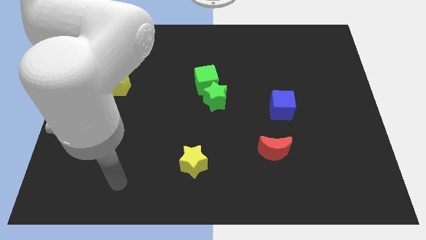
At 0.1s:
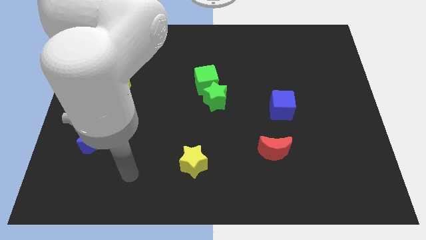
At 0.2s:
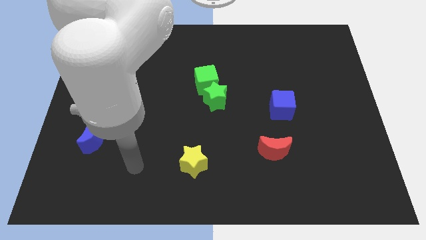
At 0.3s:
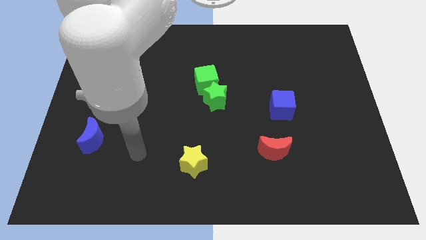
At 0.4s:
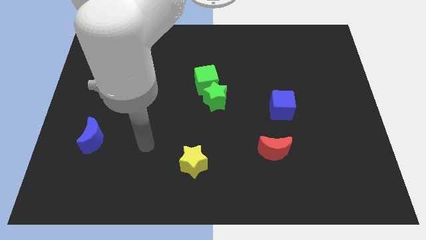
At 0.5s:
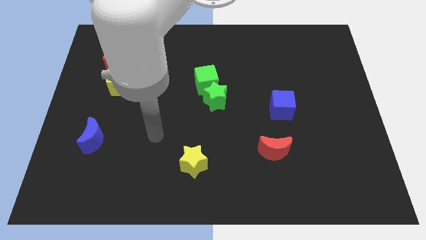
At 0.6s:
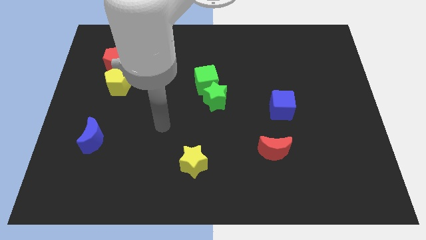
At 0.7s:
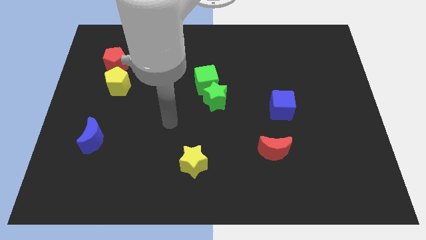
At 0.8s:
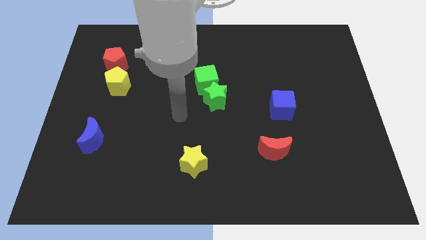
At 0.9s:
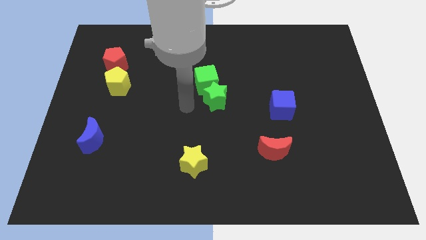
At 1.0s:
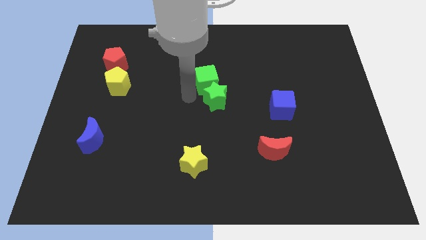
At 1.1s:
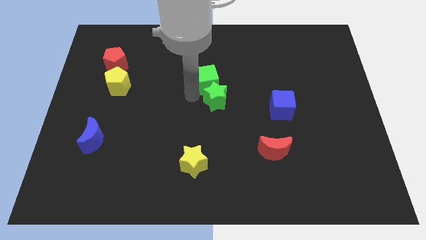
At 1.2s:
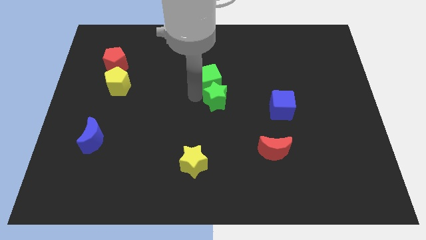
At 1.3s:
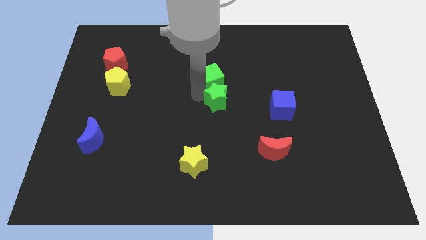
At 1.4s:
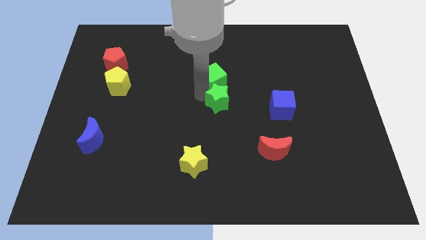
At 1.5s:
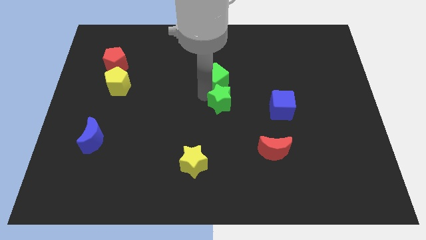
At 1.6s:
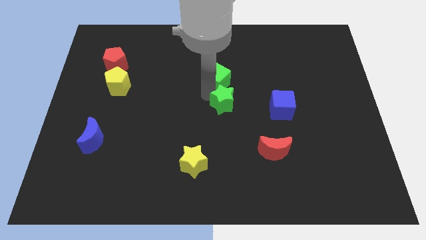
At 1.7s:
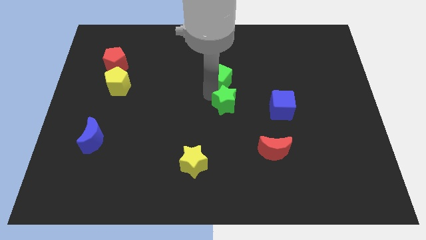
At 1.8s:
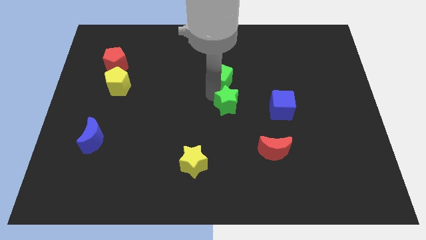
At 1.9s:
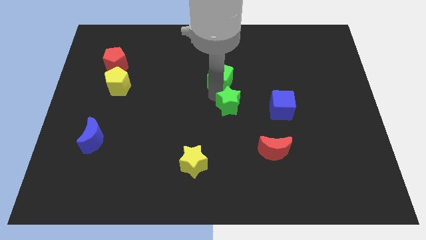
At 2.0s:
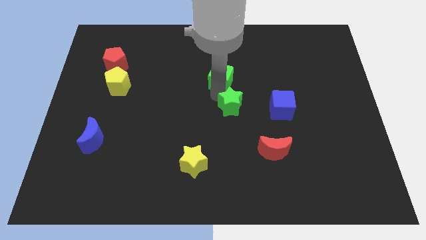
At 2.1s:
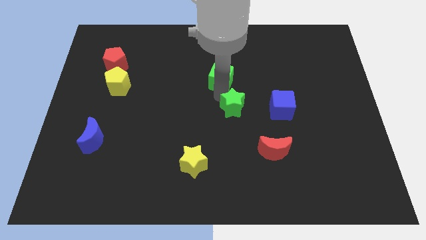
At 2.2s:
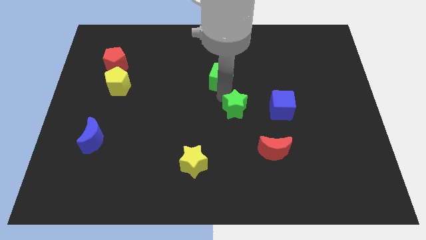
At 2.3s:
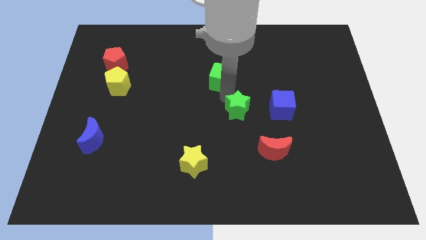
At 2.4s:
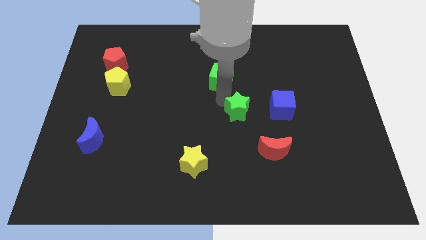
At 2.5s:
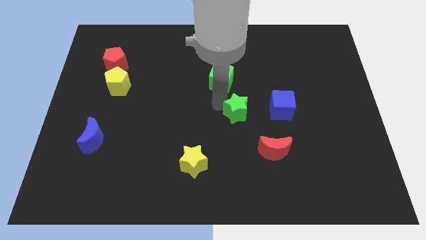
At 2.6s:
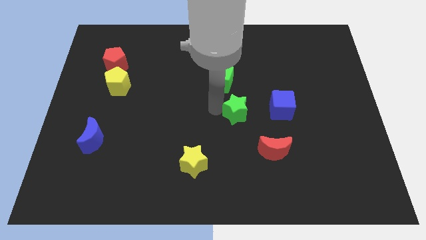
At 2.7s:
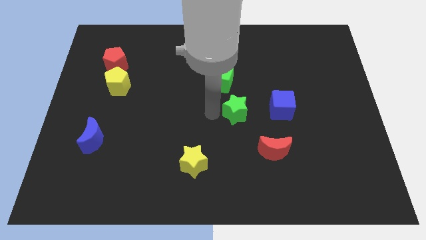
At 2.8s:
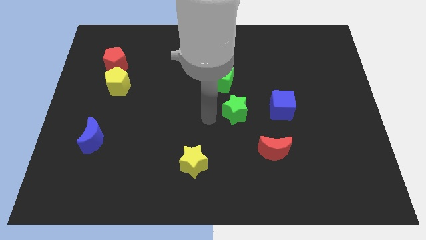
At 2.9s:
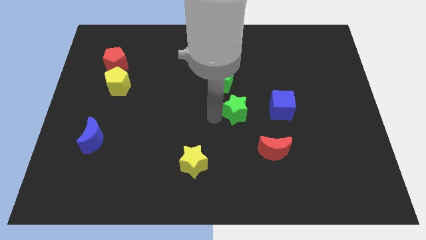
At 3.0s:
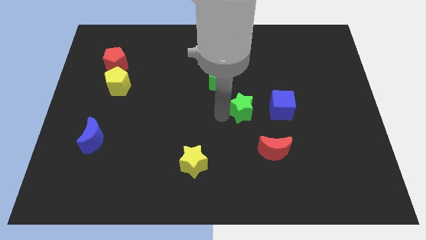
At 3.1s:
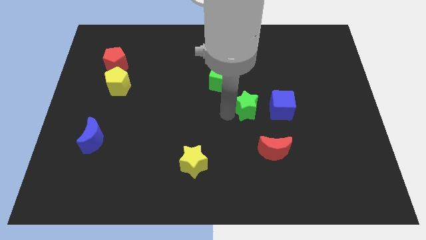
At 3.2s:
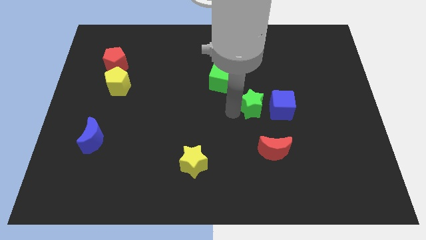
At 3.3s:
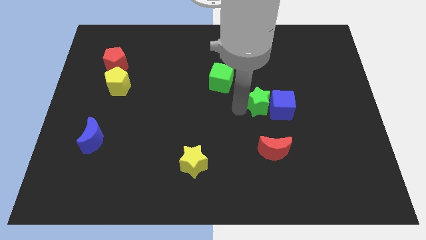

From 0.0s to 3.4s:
push the green star next to the blue cube

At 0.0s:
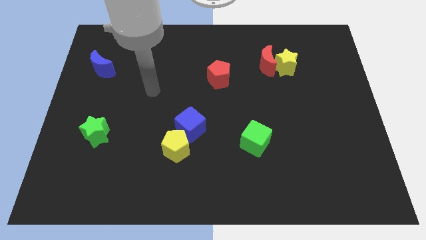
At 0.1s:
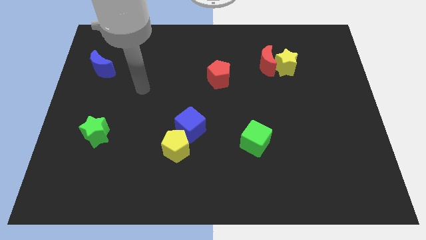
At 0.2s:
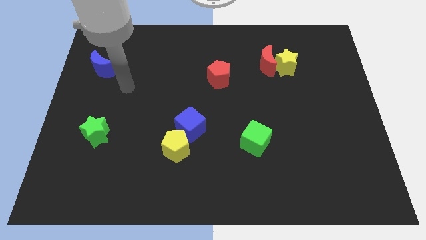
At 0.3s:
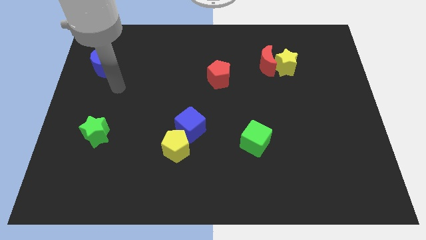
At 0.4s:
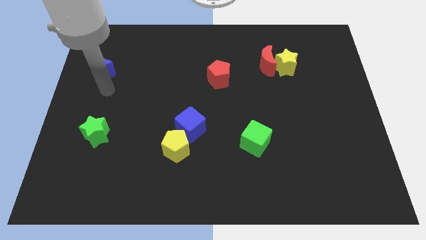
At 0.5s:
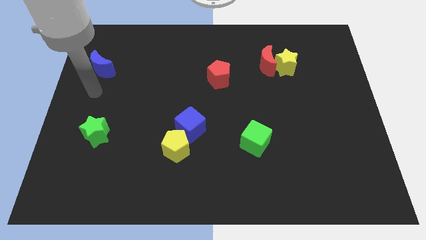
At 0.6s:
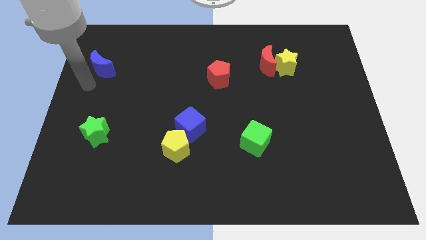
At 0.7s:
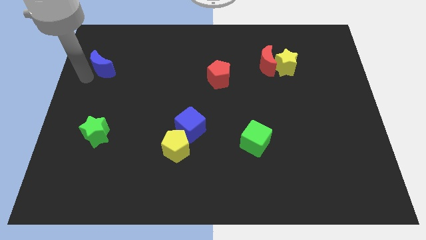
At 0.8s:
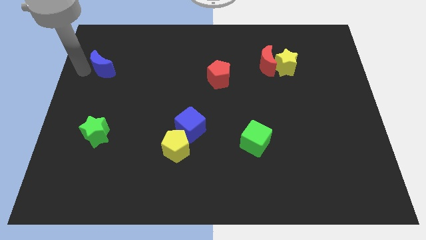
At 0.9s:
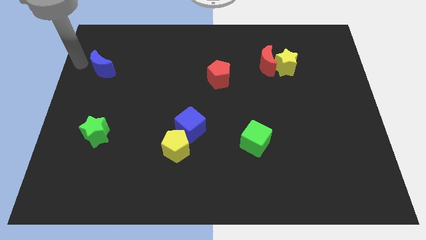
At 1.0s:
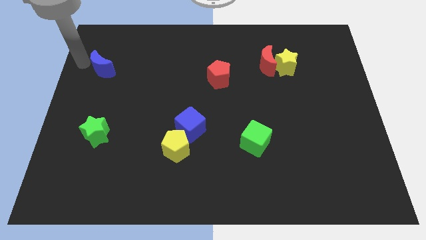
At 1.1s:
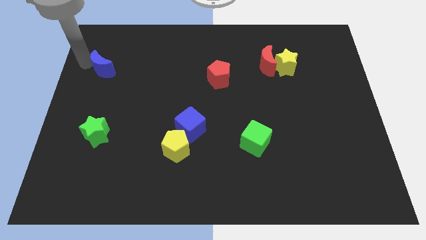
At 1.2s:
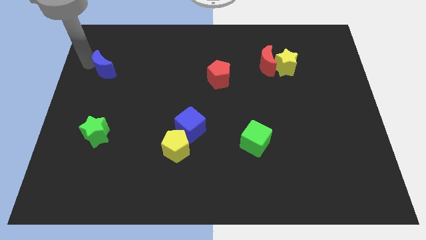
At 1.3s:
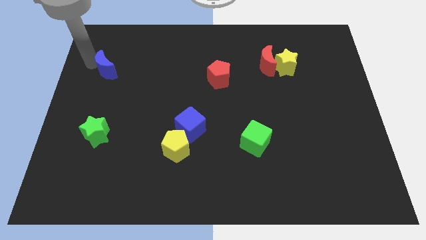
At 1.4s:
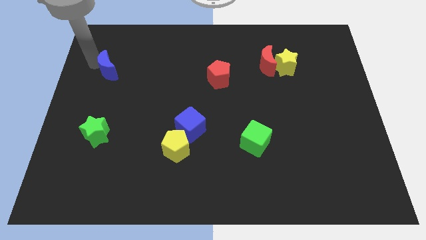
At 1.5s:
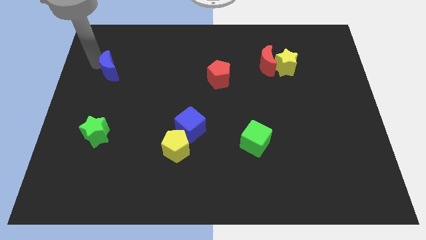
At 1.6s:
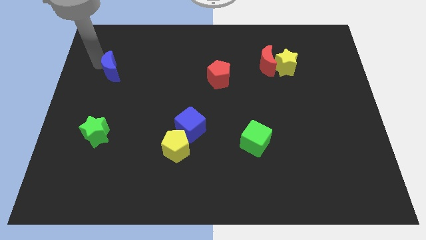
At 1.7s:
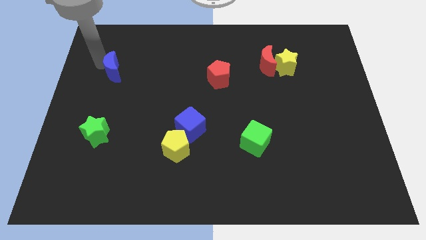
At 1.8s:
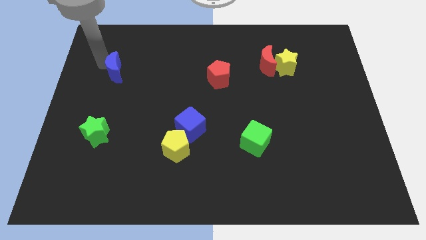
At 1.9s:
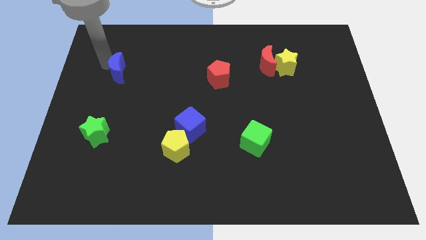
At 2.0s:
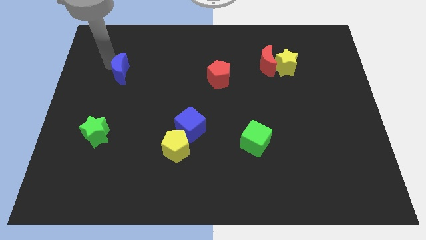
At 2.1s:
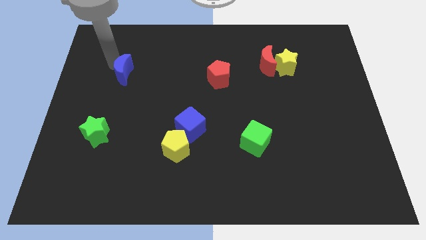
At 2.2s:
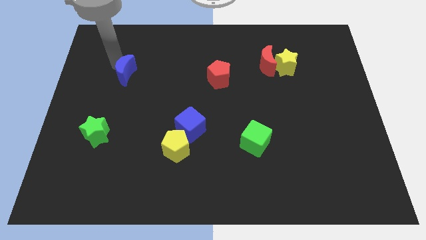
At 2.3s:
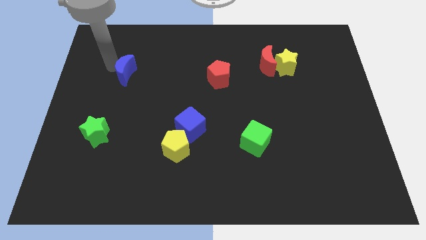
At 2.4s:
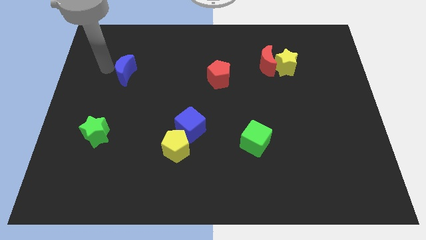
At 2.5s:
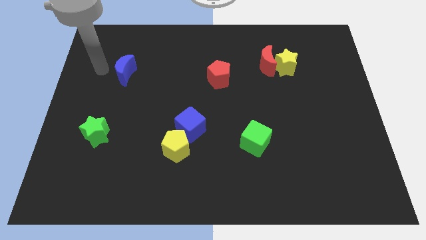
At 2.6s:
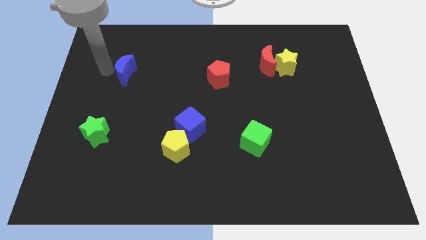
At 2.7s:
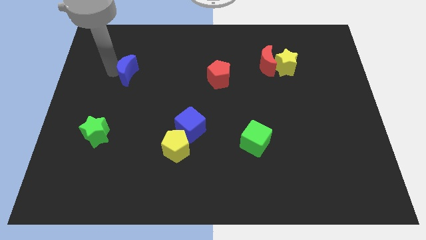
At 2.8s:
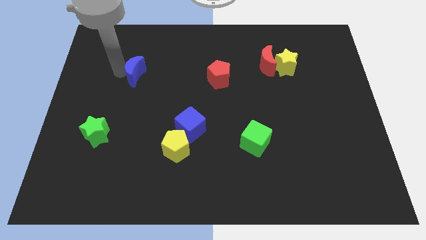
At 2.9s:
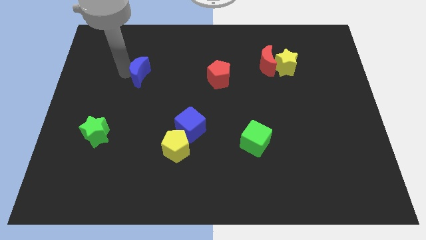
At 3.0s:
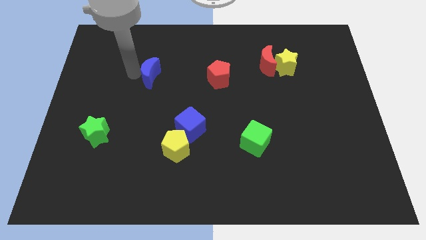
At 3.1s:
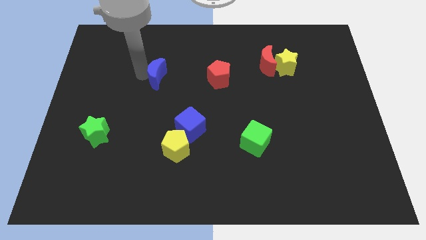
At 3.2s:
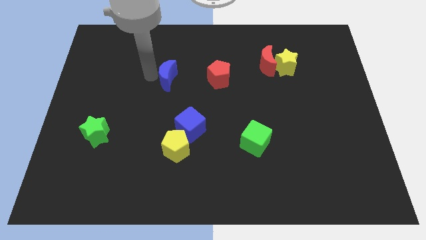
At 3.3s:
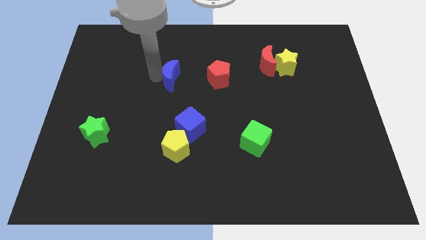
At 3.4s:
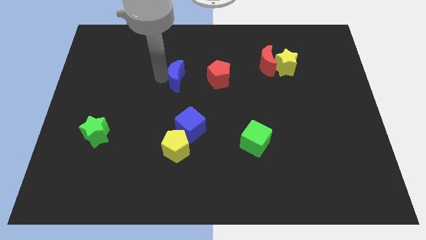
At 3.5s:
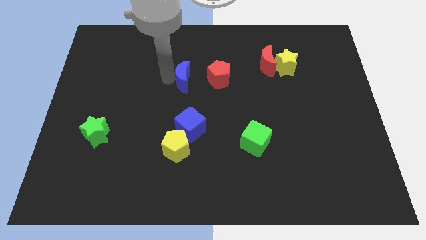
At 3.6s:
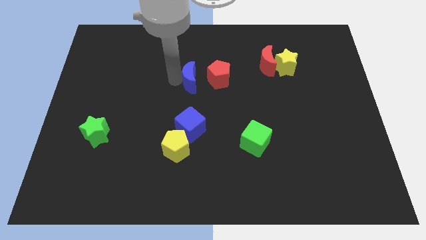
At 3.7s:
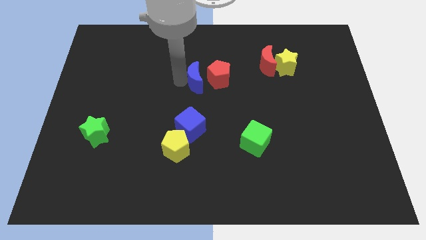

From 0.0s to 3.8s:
put the blue moon towards the red pentagon

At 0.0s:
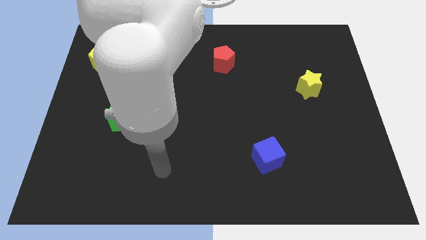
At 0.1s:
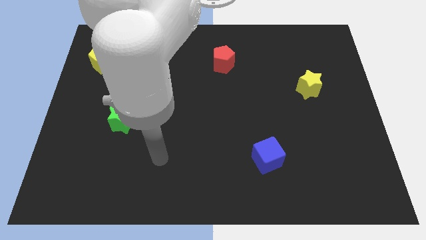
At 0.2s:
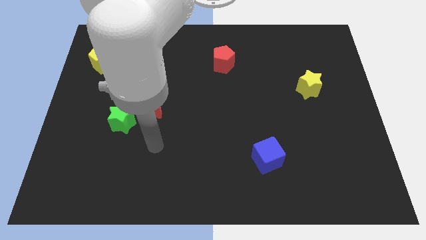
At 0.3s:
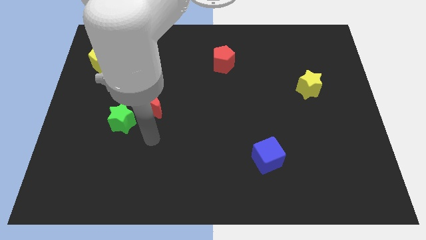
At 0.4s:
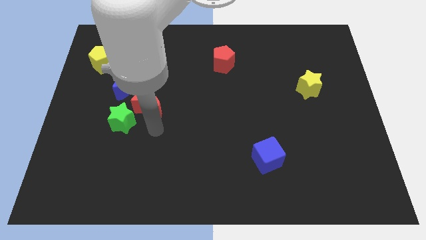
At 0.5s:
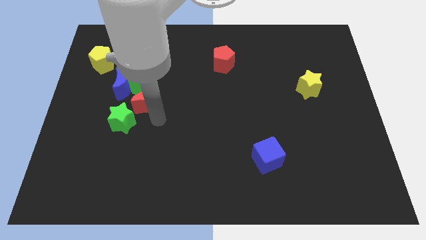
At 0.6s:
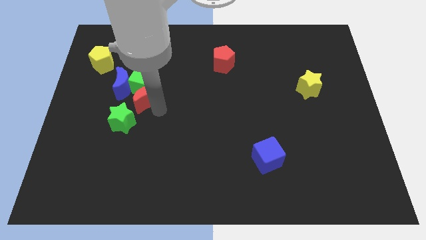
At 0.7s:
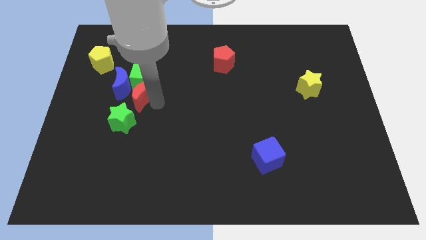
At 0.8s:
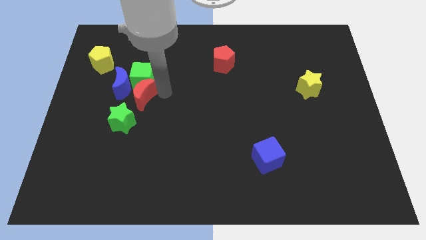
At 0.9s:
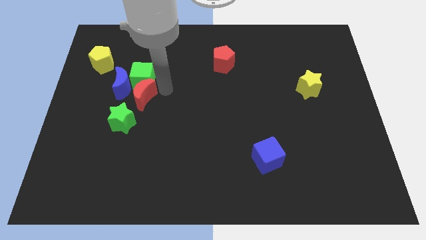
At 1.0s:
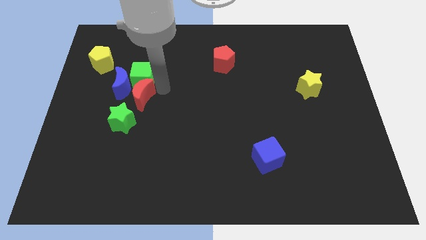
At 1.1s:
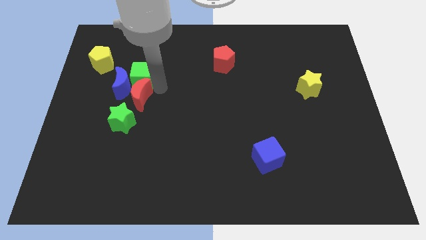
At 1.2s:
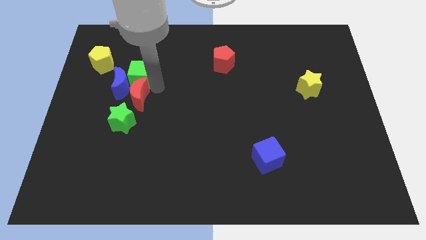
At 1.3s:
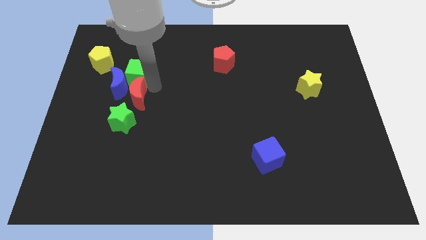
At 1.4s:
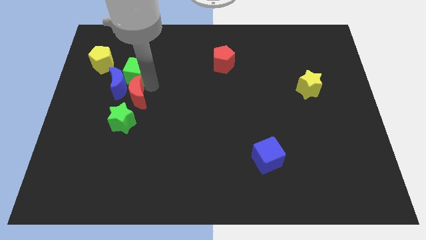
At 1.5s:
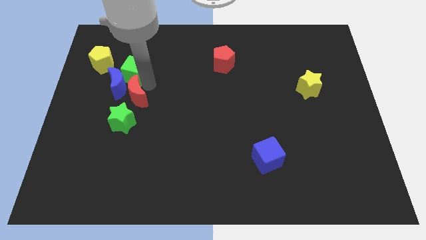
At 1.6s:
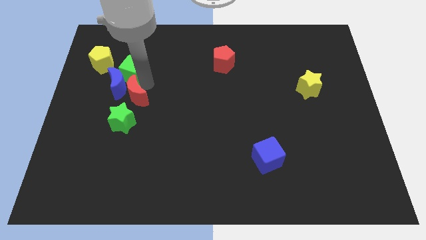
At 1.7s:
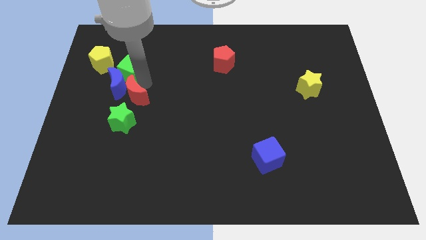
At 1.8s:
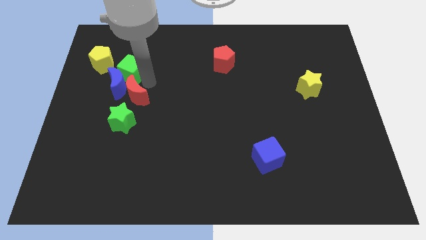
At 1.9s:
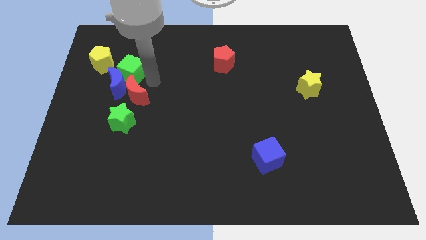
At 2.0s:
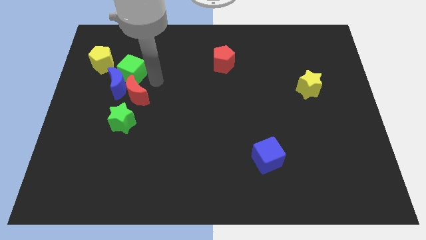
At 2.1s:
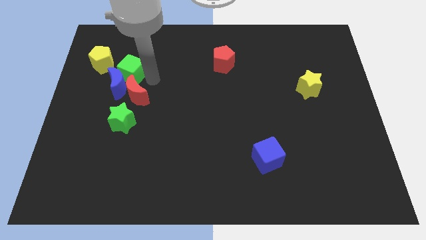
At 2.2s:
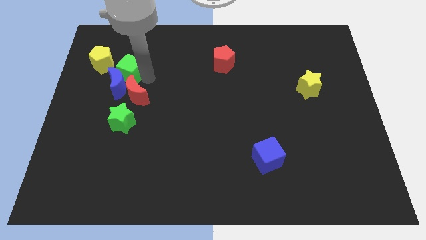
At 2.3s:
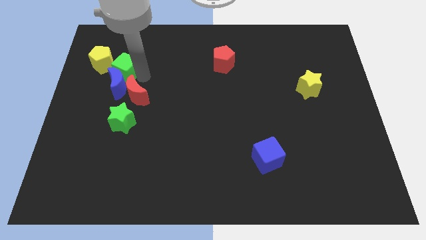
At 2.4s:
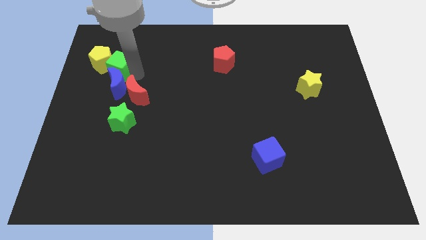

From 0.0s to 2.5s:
slide the green cube to the yellow pentagon
